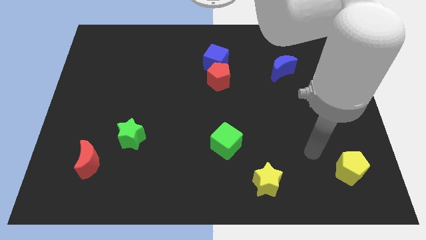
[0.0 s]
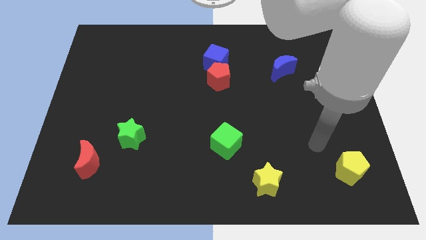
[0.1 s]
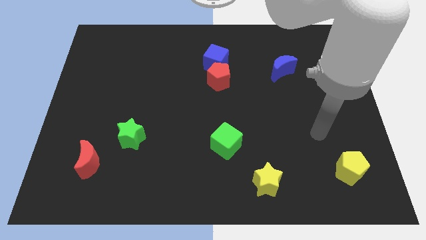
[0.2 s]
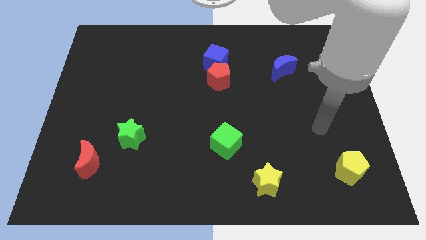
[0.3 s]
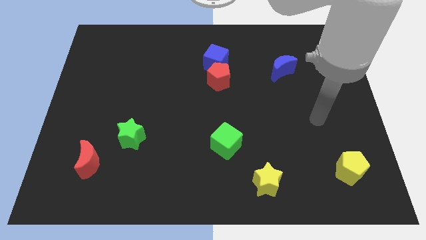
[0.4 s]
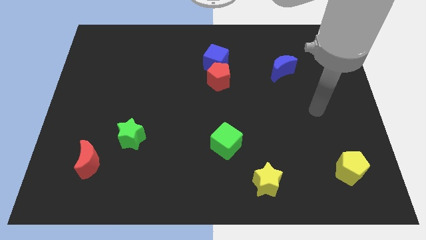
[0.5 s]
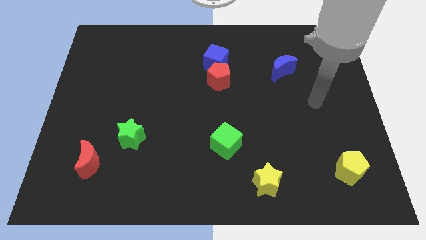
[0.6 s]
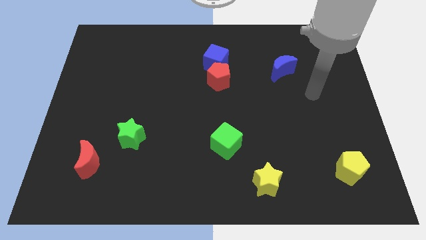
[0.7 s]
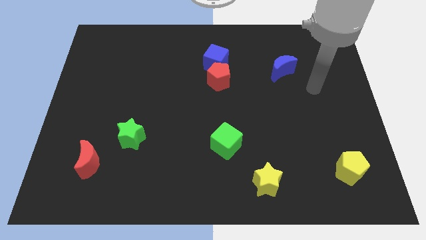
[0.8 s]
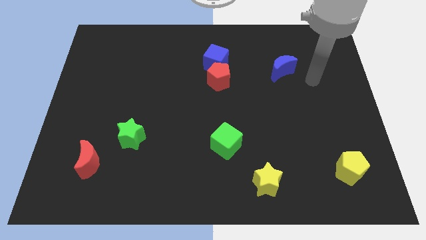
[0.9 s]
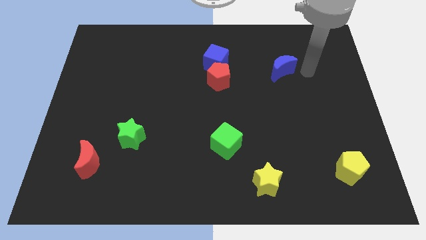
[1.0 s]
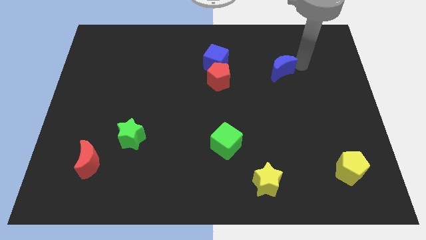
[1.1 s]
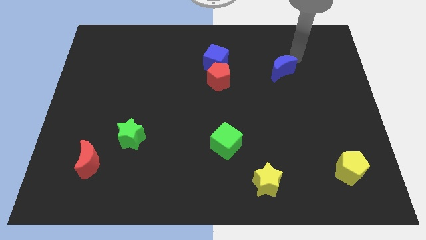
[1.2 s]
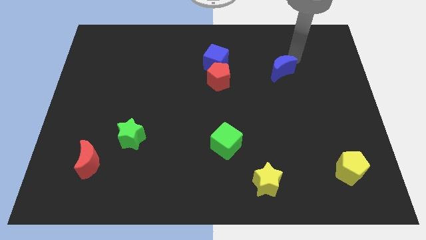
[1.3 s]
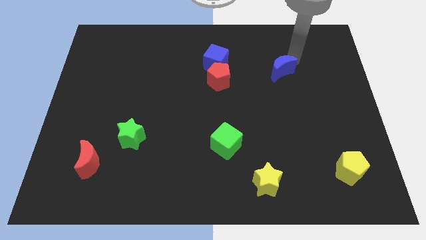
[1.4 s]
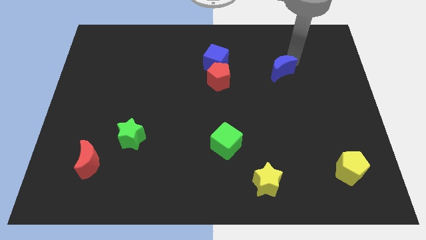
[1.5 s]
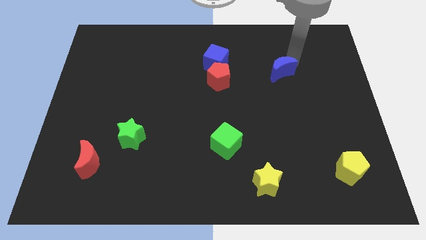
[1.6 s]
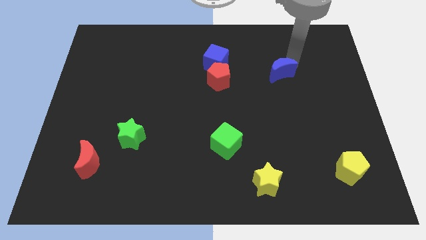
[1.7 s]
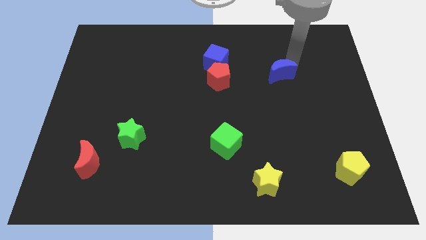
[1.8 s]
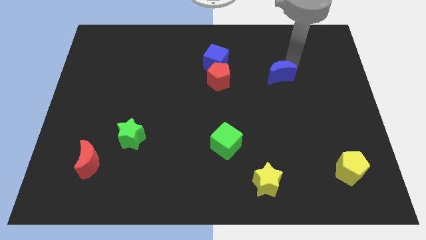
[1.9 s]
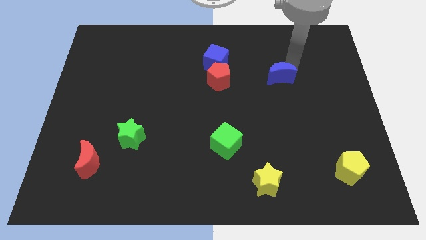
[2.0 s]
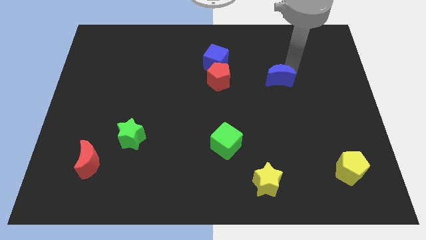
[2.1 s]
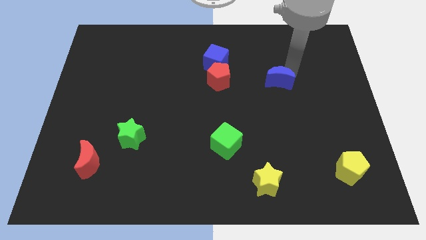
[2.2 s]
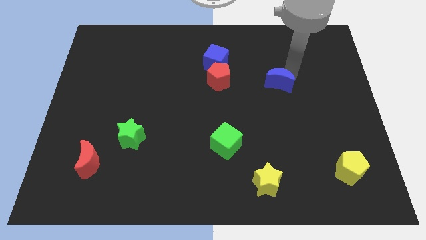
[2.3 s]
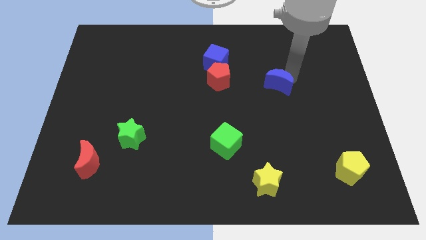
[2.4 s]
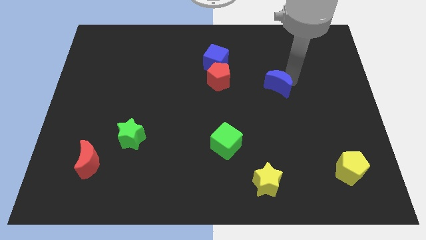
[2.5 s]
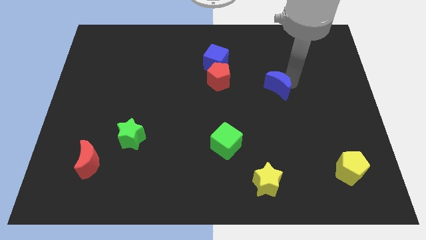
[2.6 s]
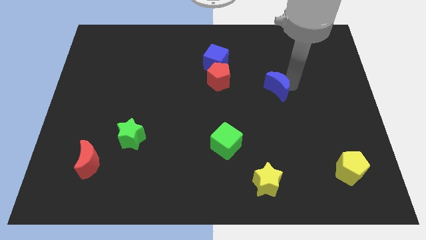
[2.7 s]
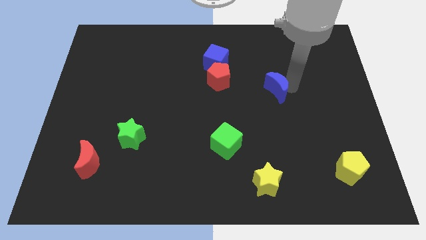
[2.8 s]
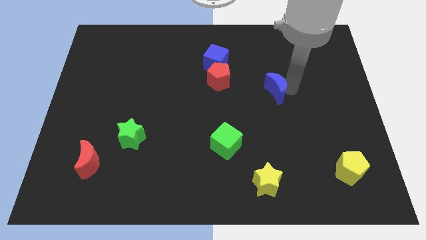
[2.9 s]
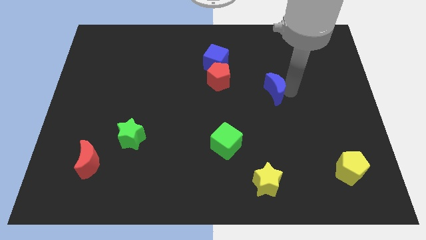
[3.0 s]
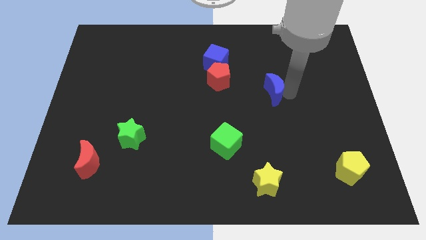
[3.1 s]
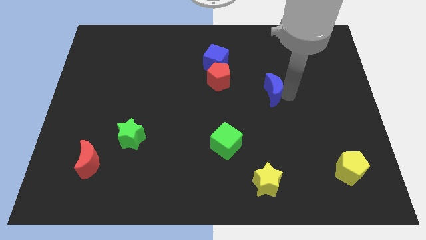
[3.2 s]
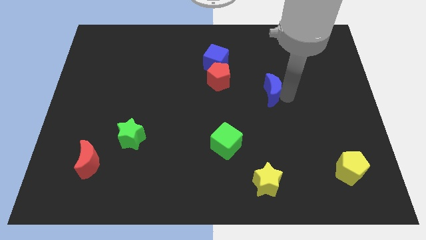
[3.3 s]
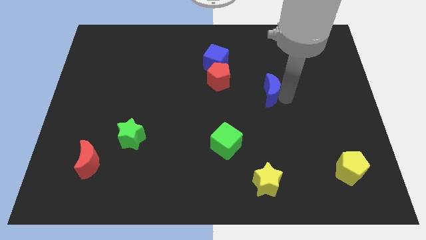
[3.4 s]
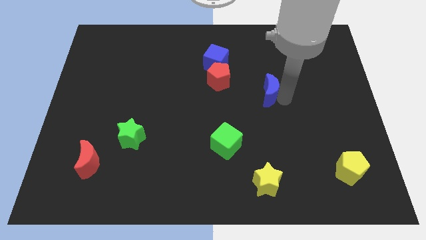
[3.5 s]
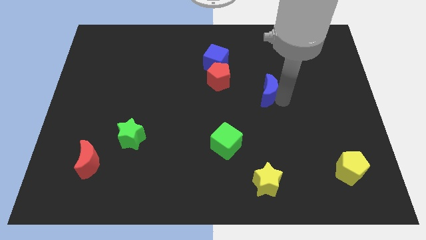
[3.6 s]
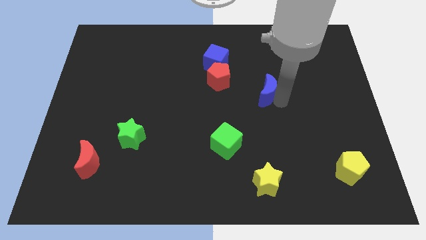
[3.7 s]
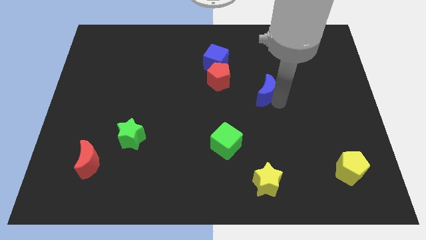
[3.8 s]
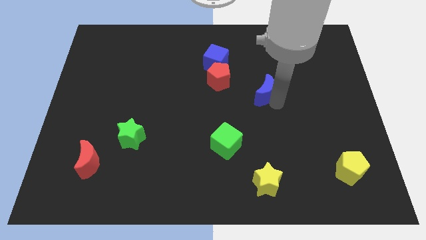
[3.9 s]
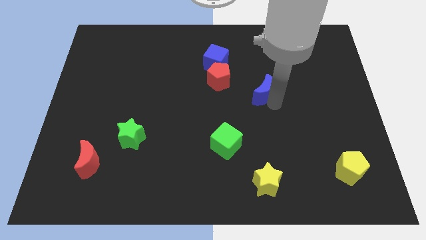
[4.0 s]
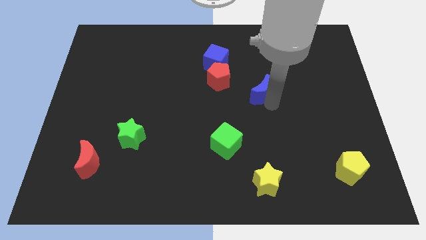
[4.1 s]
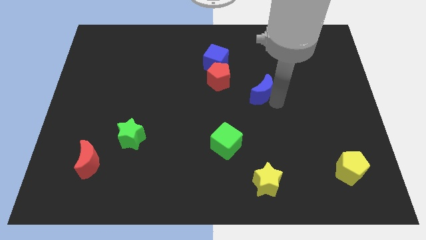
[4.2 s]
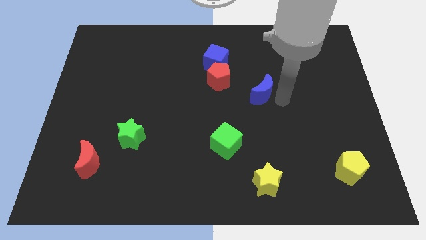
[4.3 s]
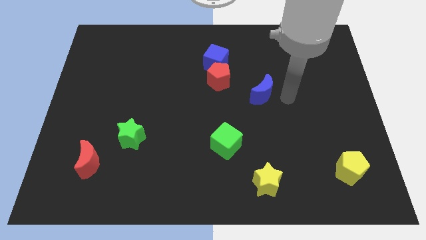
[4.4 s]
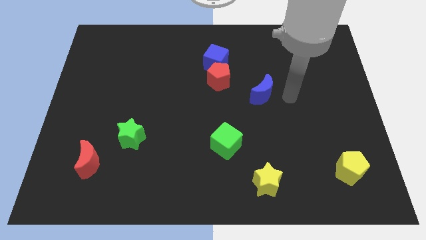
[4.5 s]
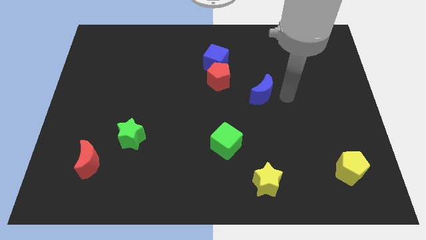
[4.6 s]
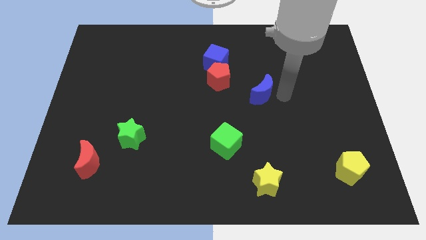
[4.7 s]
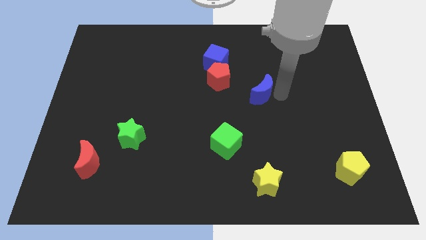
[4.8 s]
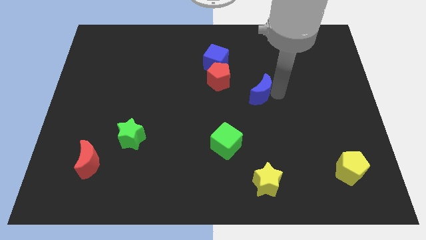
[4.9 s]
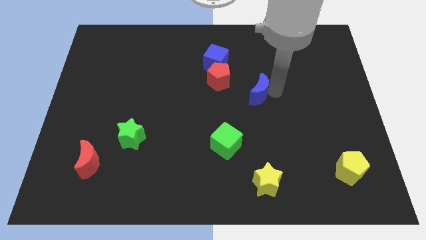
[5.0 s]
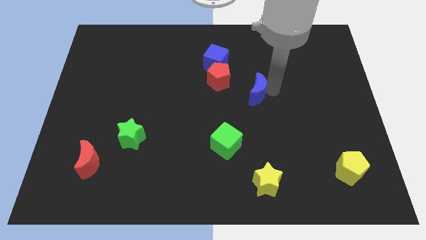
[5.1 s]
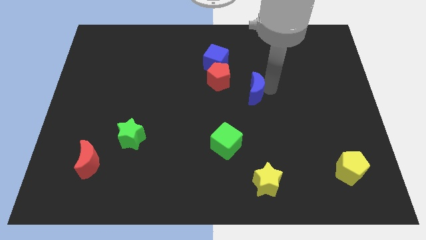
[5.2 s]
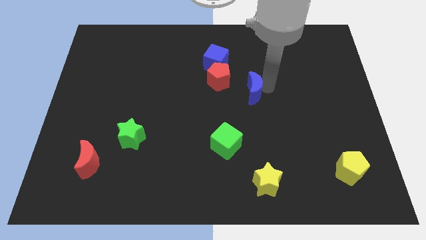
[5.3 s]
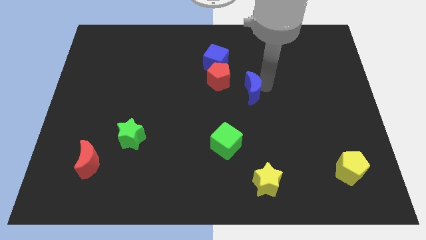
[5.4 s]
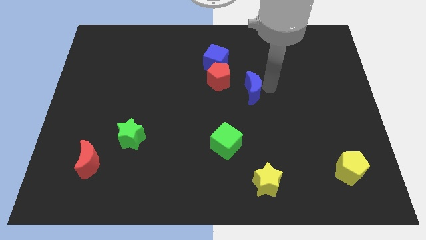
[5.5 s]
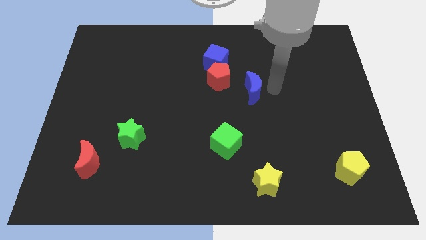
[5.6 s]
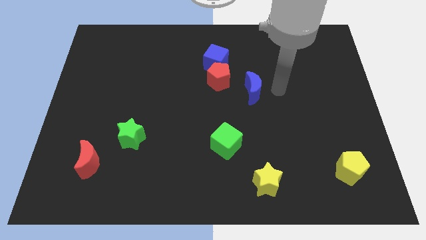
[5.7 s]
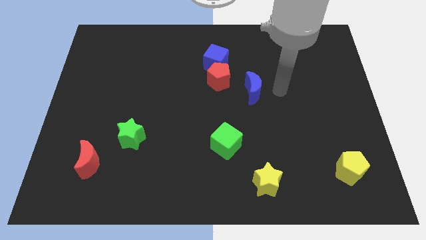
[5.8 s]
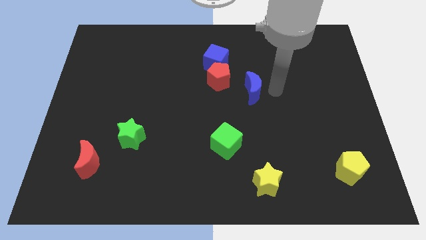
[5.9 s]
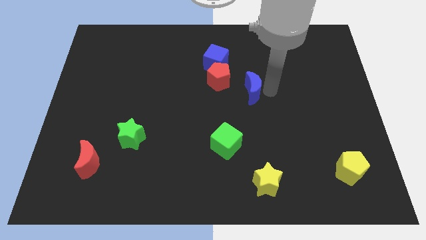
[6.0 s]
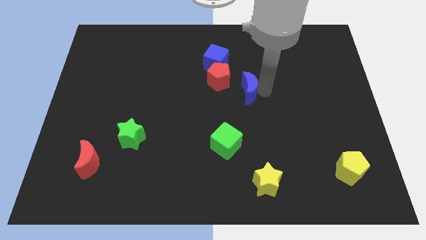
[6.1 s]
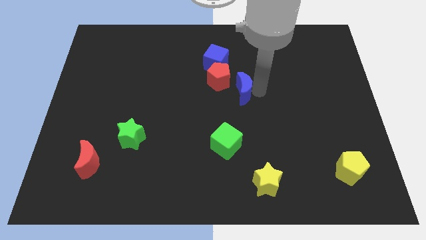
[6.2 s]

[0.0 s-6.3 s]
move the blue moon somewhat left

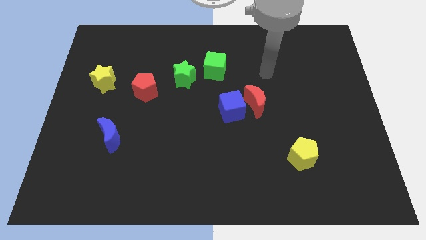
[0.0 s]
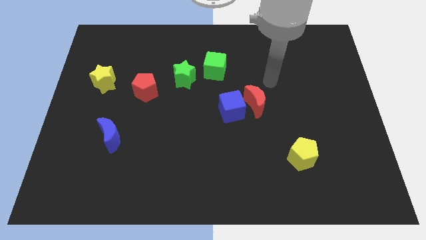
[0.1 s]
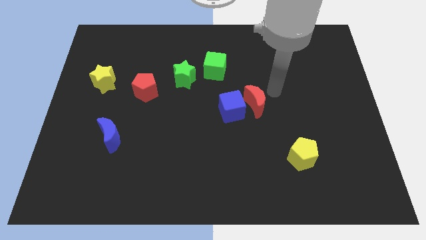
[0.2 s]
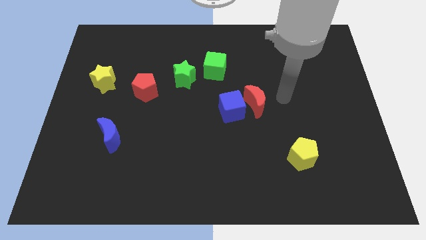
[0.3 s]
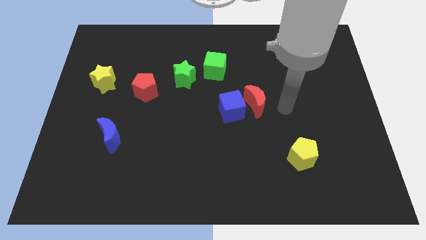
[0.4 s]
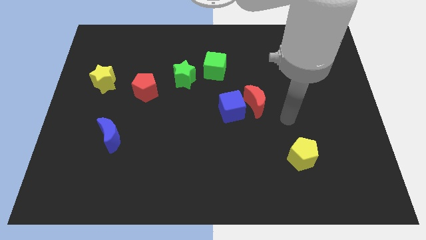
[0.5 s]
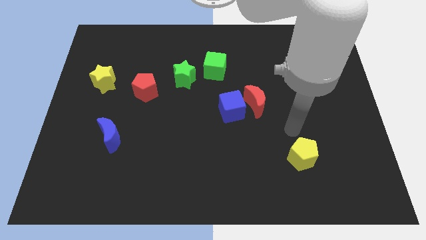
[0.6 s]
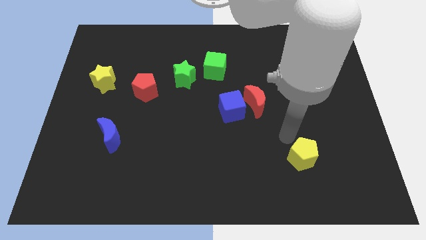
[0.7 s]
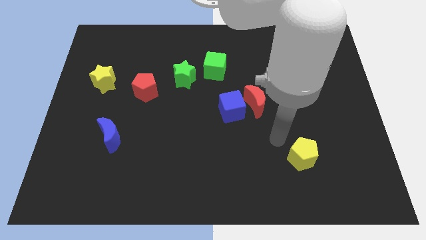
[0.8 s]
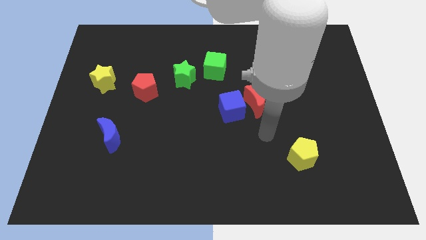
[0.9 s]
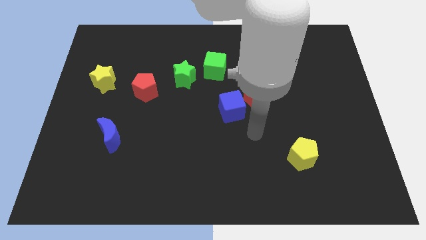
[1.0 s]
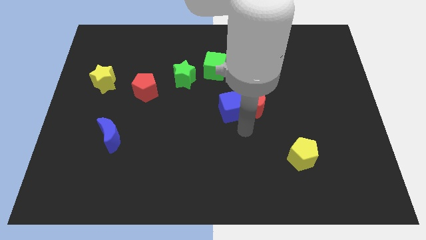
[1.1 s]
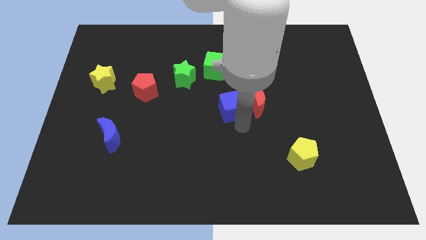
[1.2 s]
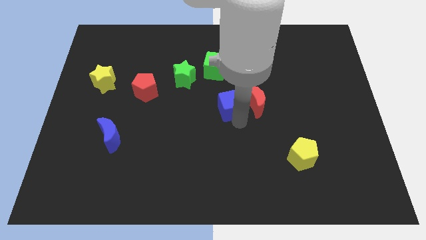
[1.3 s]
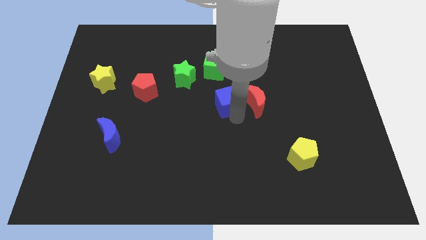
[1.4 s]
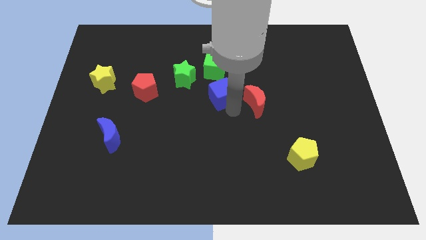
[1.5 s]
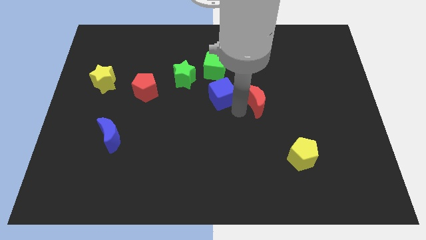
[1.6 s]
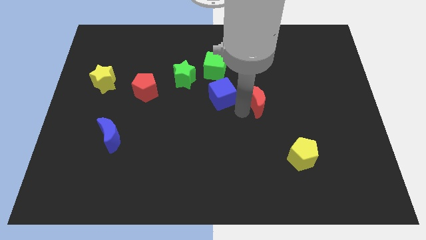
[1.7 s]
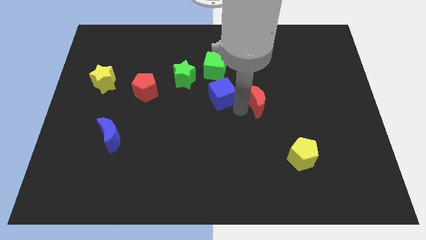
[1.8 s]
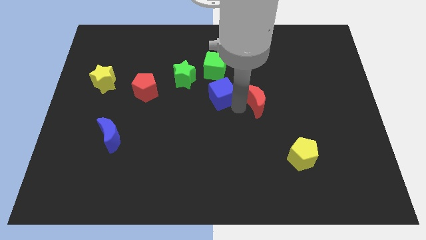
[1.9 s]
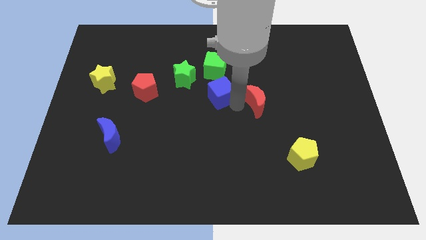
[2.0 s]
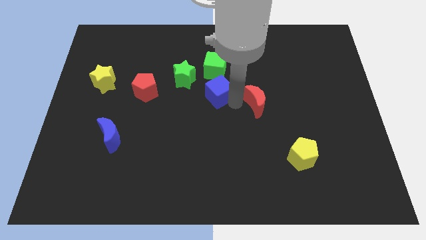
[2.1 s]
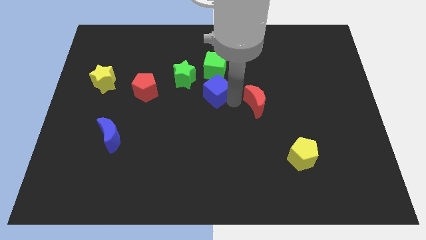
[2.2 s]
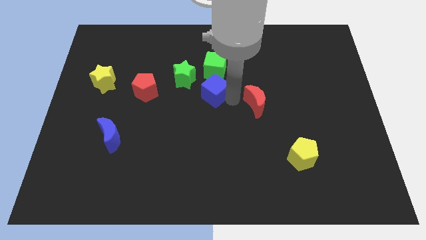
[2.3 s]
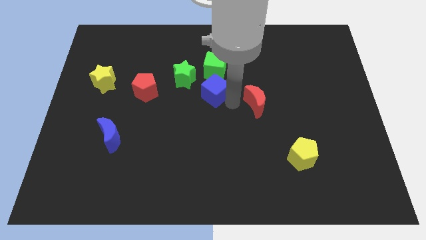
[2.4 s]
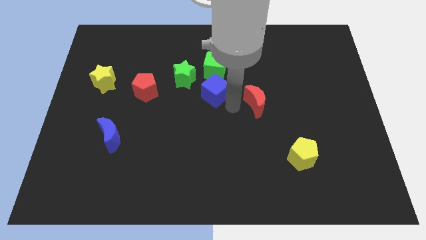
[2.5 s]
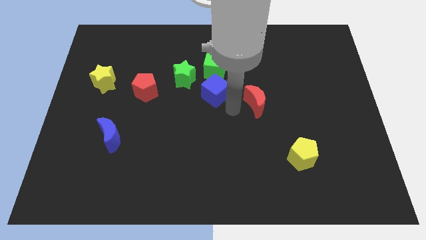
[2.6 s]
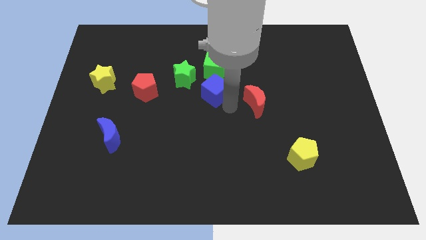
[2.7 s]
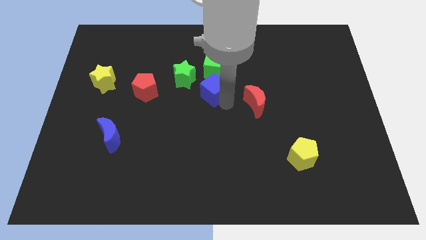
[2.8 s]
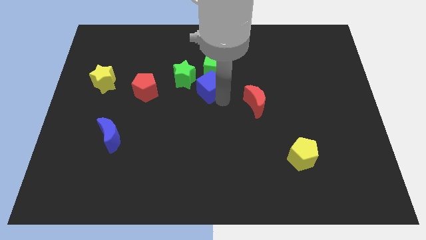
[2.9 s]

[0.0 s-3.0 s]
push the blue cube up and to the left diagonally somewhat
